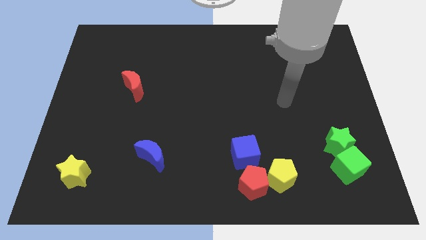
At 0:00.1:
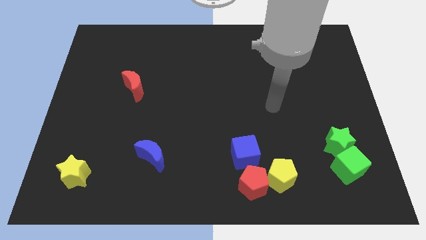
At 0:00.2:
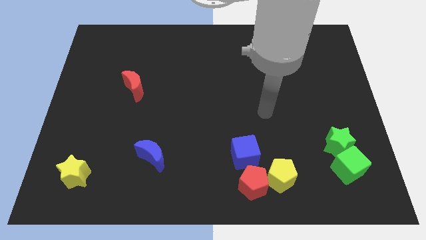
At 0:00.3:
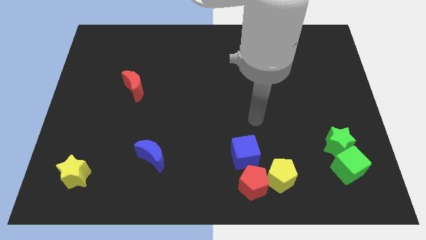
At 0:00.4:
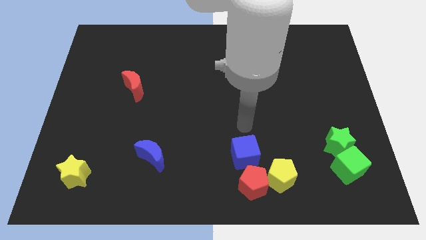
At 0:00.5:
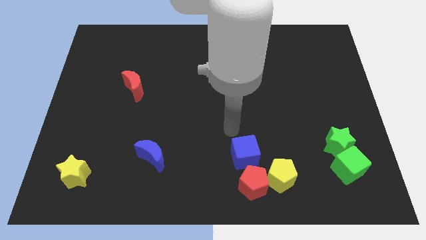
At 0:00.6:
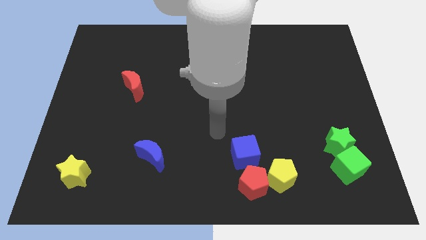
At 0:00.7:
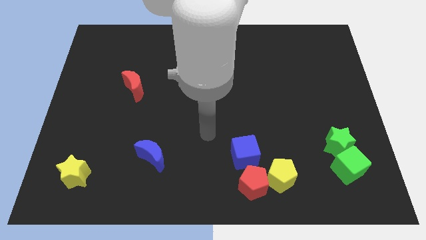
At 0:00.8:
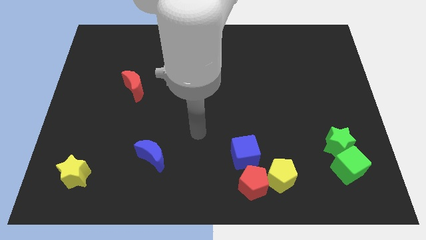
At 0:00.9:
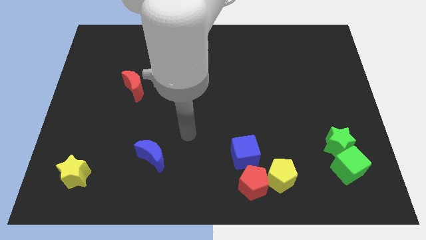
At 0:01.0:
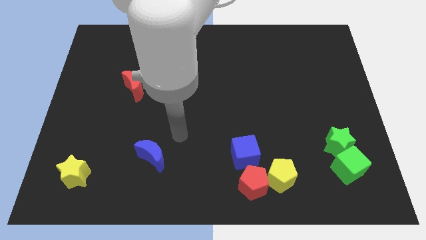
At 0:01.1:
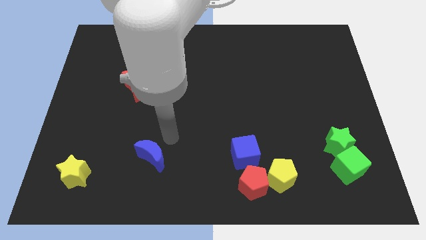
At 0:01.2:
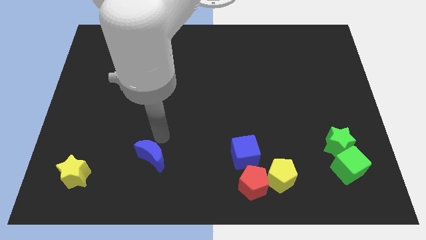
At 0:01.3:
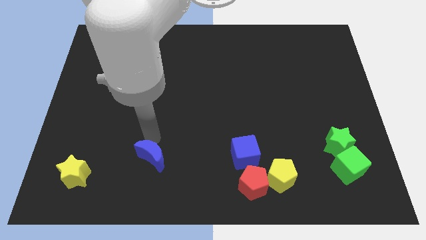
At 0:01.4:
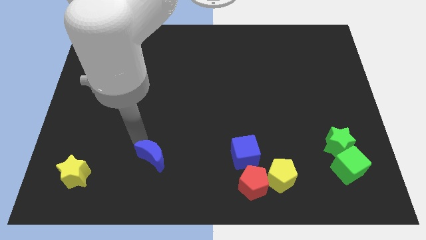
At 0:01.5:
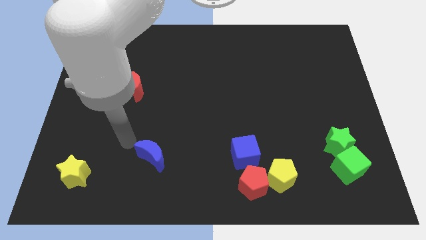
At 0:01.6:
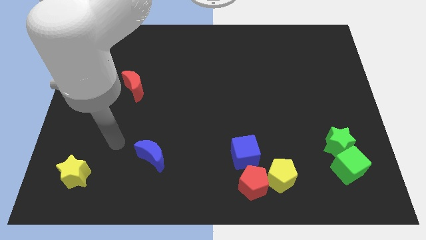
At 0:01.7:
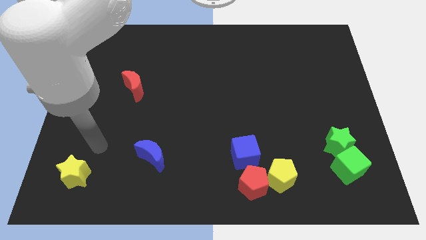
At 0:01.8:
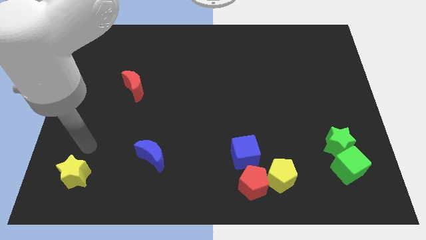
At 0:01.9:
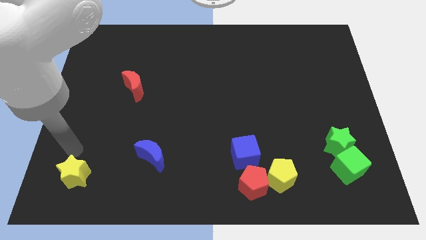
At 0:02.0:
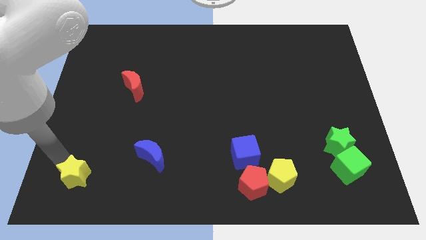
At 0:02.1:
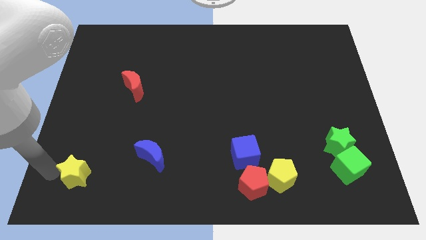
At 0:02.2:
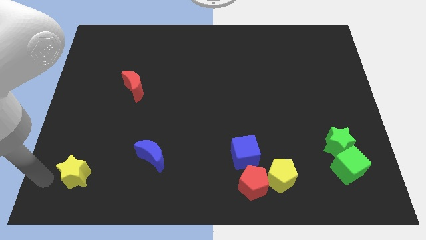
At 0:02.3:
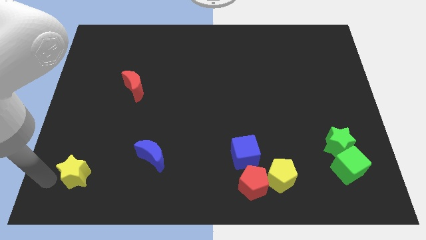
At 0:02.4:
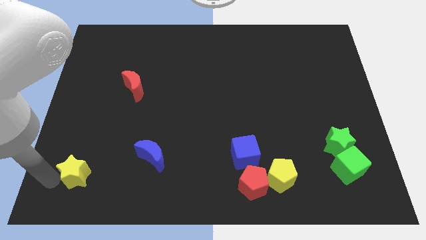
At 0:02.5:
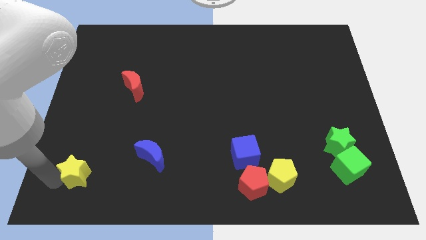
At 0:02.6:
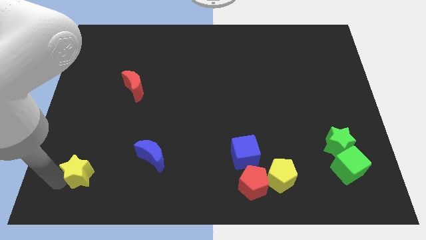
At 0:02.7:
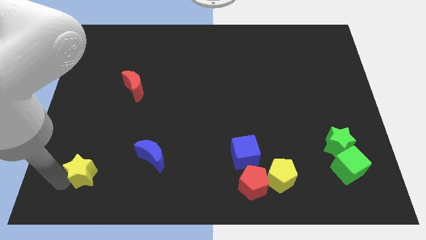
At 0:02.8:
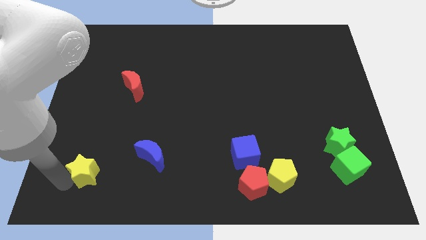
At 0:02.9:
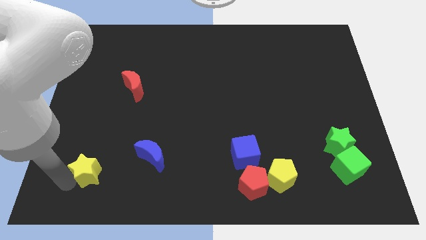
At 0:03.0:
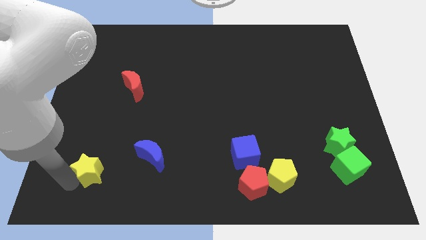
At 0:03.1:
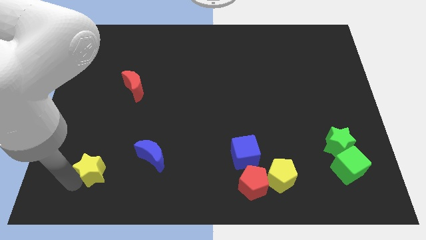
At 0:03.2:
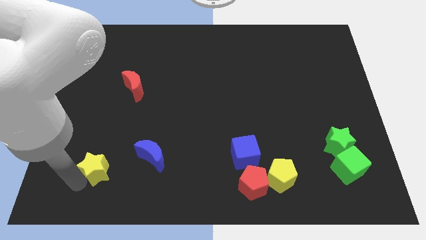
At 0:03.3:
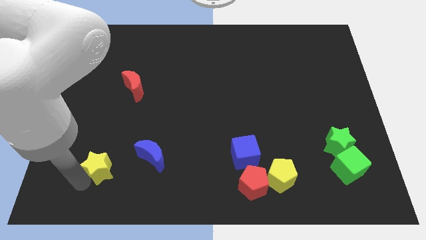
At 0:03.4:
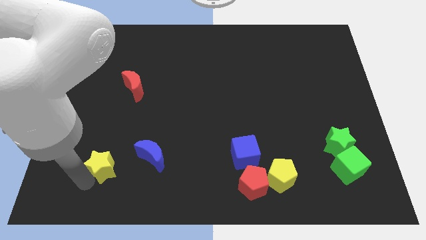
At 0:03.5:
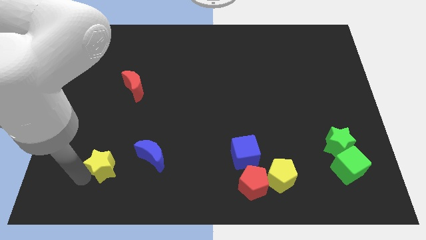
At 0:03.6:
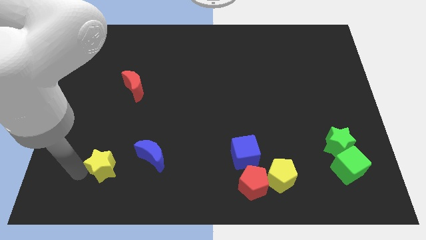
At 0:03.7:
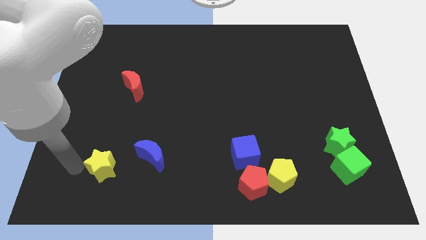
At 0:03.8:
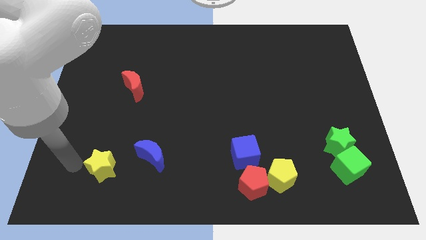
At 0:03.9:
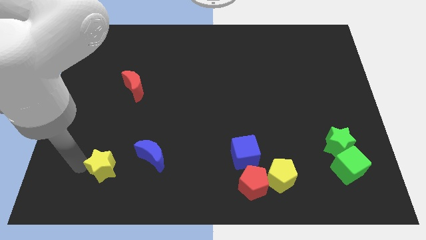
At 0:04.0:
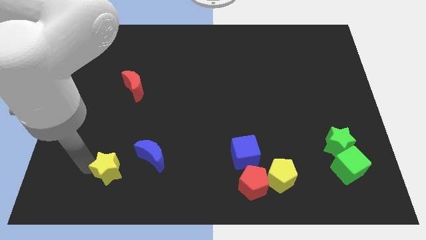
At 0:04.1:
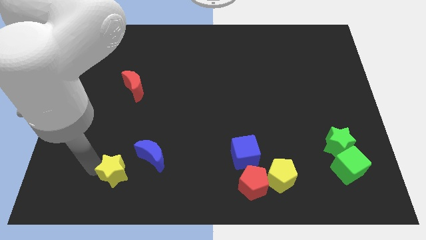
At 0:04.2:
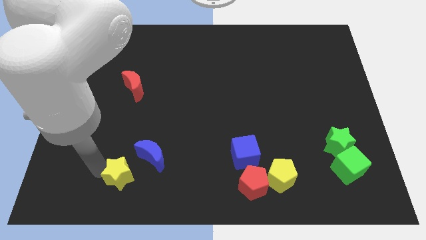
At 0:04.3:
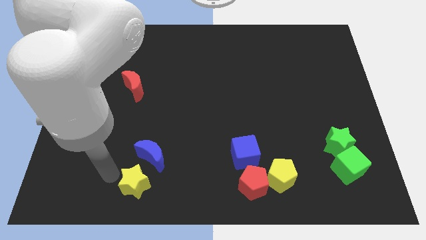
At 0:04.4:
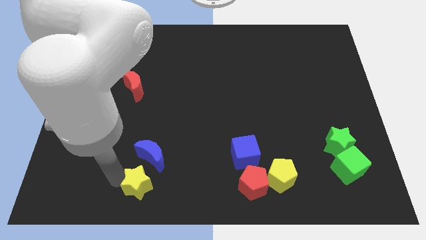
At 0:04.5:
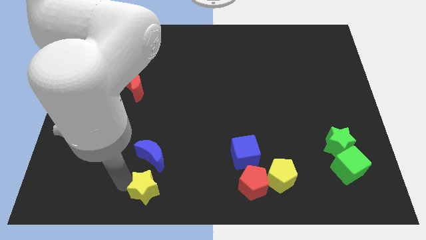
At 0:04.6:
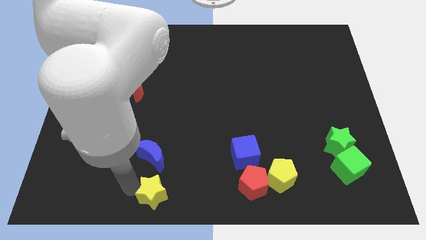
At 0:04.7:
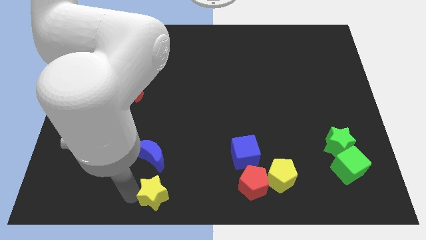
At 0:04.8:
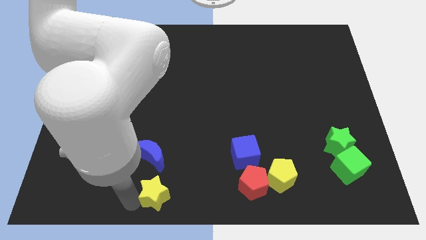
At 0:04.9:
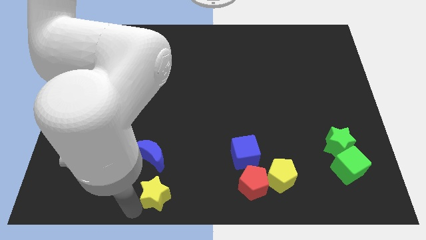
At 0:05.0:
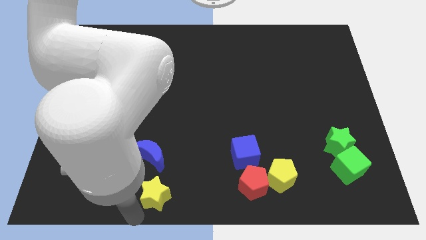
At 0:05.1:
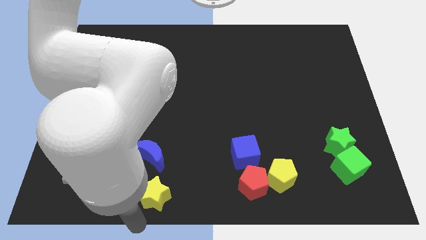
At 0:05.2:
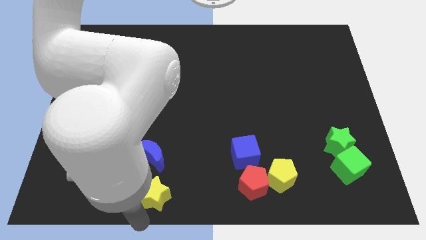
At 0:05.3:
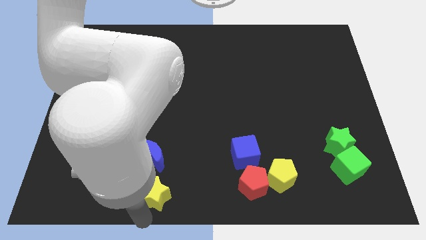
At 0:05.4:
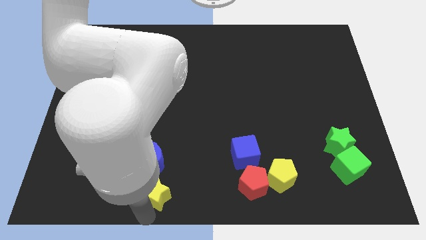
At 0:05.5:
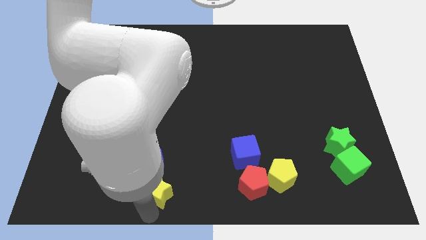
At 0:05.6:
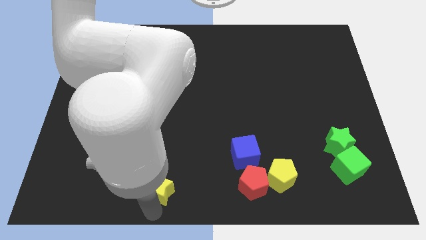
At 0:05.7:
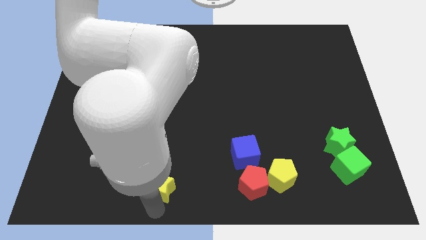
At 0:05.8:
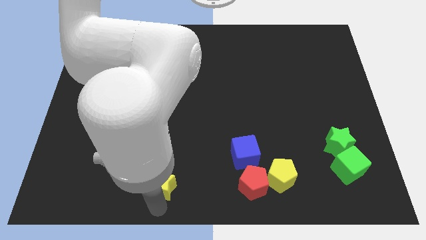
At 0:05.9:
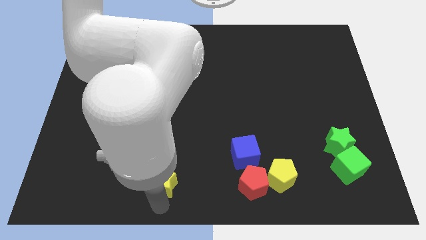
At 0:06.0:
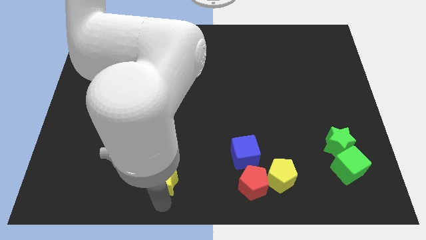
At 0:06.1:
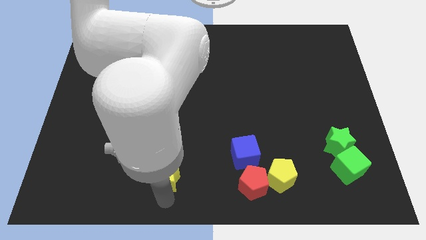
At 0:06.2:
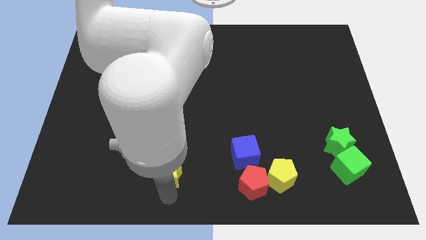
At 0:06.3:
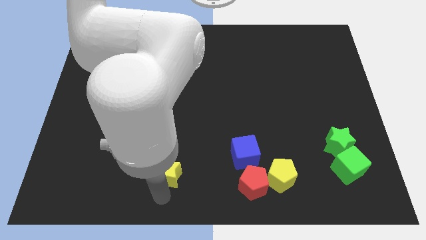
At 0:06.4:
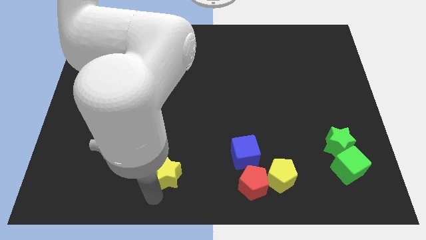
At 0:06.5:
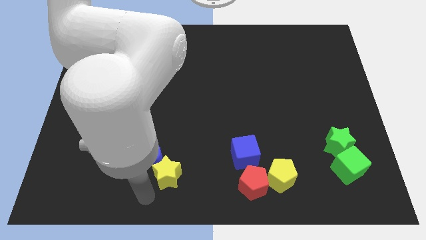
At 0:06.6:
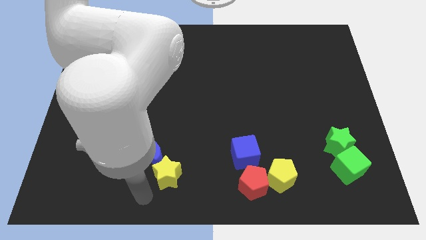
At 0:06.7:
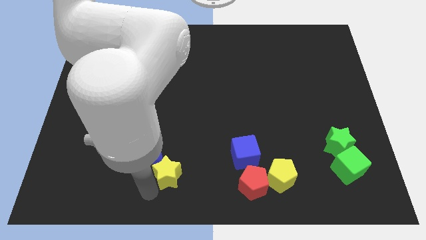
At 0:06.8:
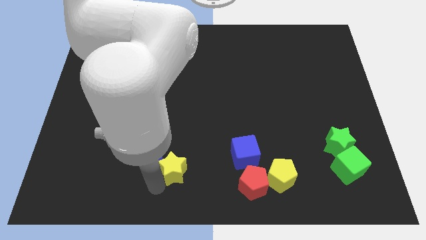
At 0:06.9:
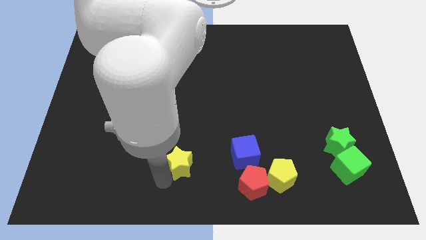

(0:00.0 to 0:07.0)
push the yellow star to the left of the blue cube
